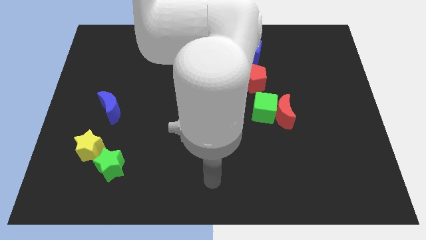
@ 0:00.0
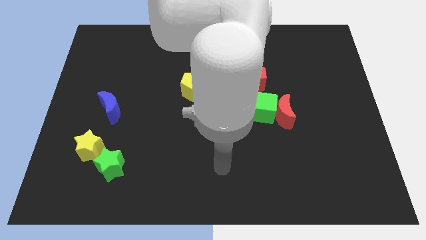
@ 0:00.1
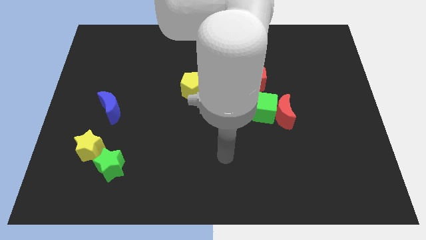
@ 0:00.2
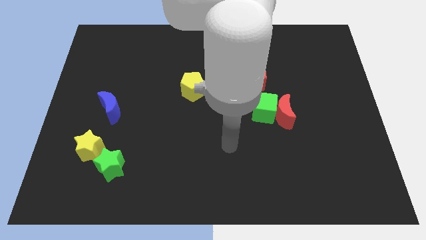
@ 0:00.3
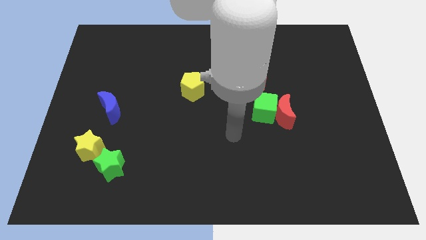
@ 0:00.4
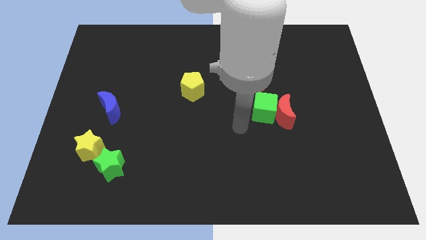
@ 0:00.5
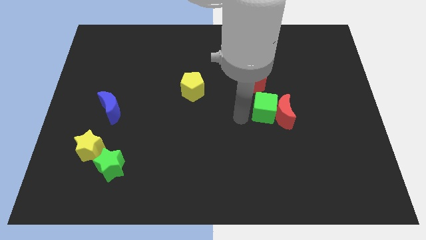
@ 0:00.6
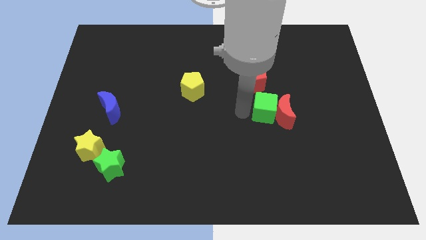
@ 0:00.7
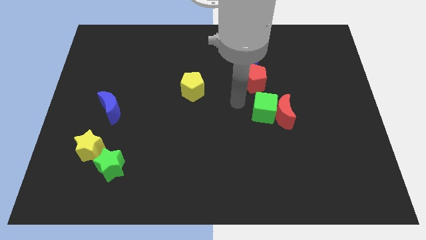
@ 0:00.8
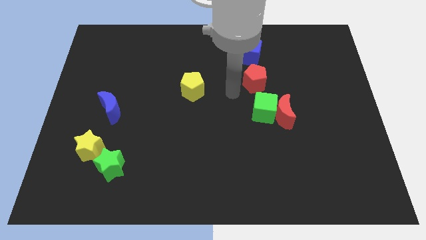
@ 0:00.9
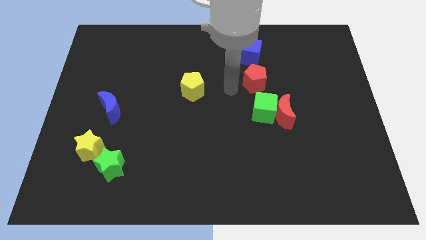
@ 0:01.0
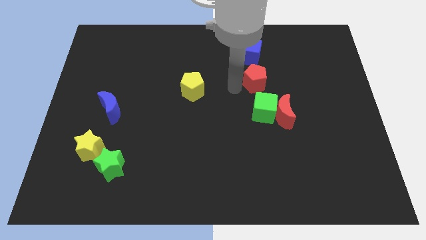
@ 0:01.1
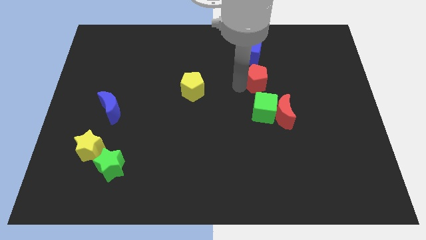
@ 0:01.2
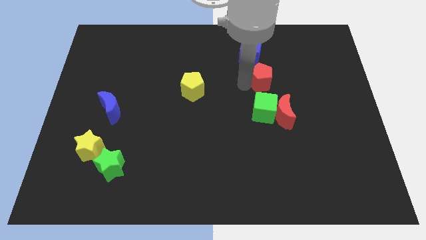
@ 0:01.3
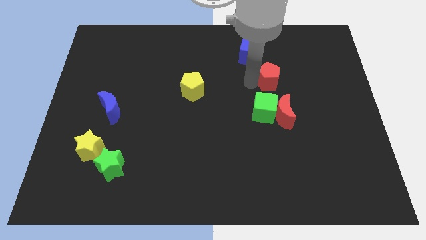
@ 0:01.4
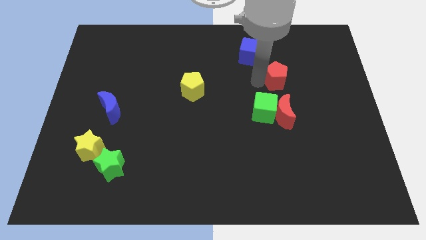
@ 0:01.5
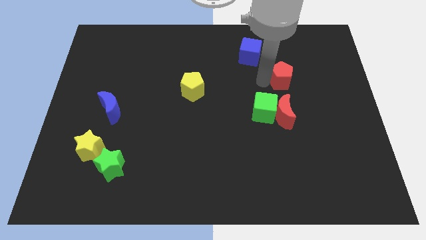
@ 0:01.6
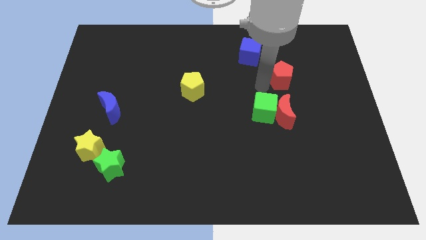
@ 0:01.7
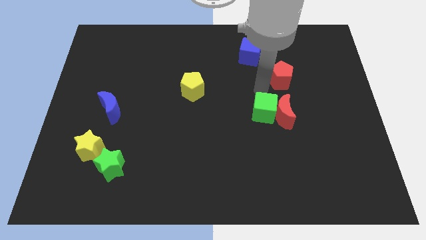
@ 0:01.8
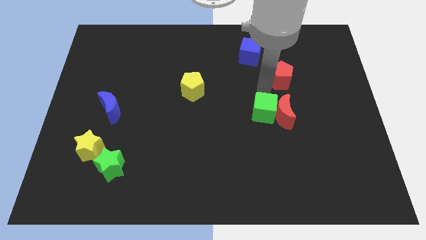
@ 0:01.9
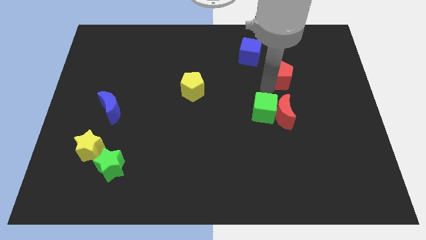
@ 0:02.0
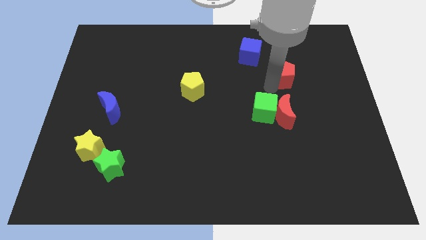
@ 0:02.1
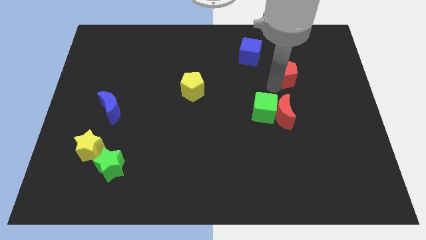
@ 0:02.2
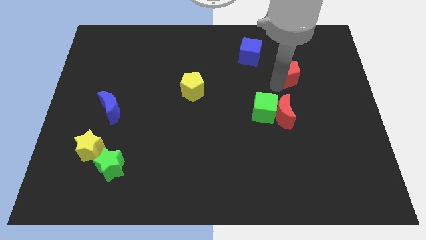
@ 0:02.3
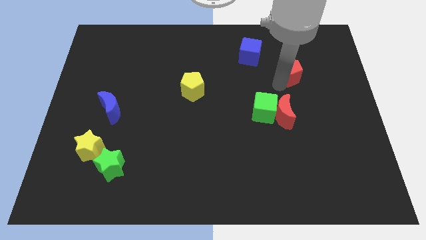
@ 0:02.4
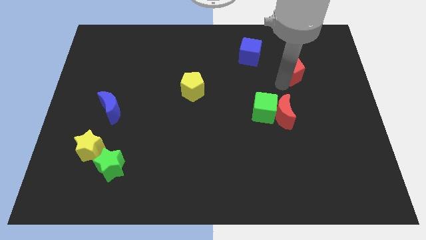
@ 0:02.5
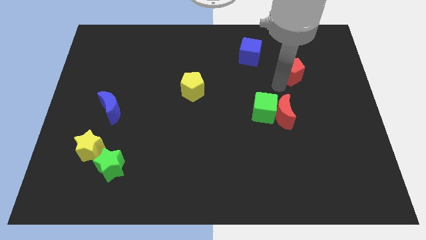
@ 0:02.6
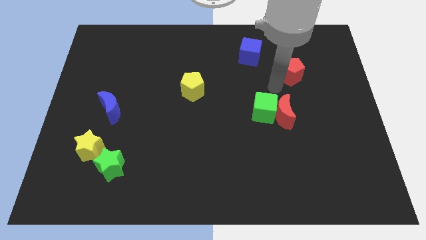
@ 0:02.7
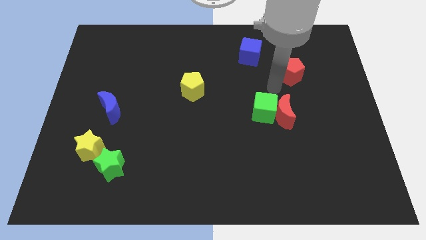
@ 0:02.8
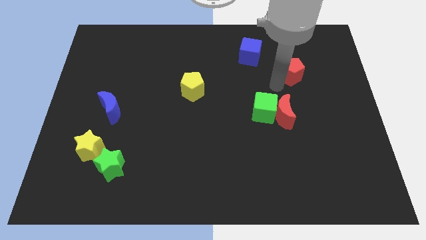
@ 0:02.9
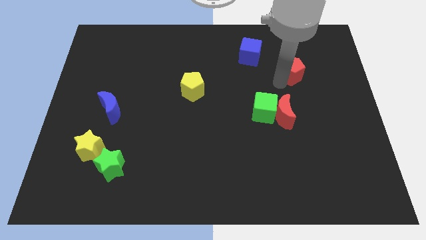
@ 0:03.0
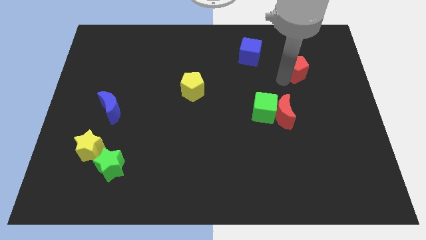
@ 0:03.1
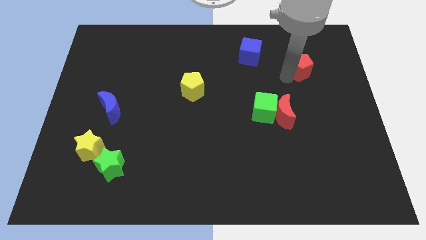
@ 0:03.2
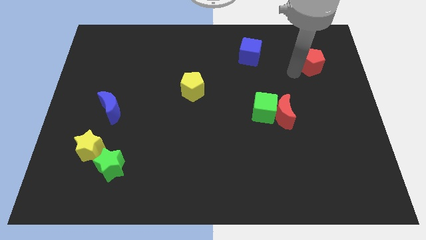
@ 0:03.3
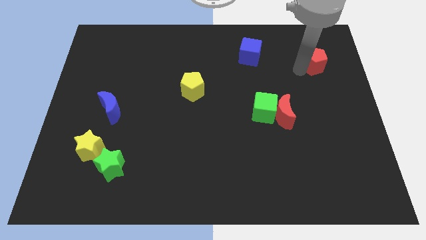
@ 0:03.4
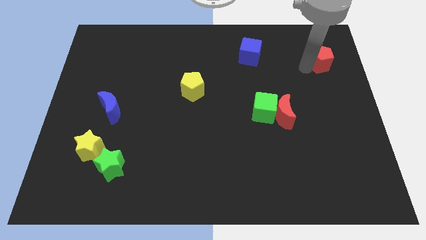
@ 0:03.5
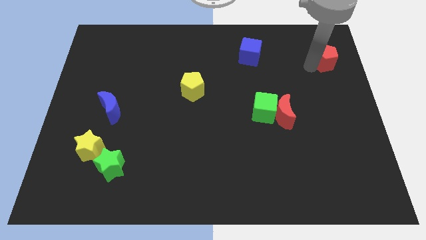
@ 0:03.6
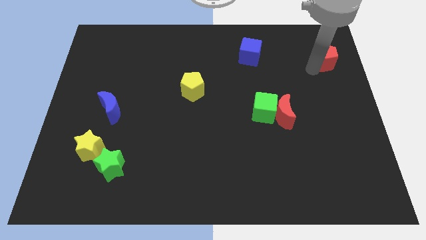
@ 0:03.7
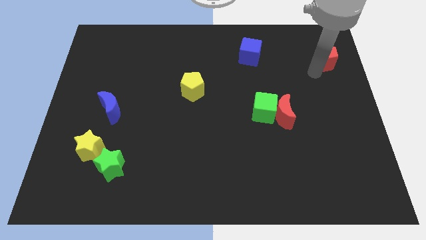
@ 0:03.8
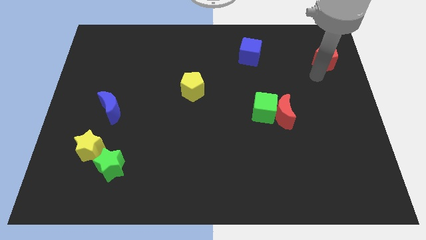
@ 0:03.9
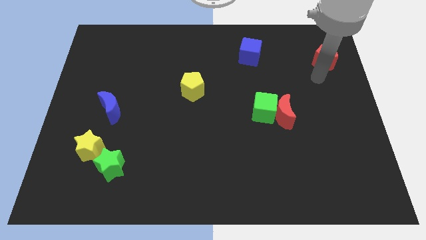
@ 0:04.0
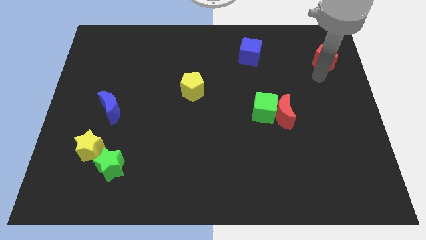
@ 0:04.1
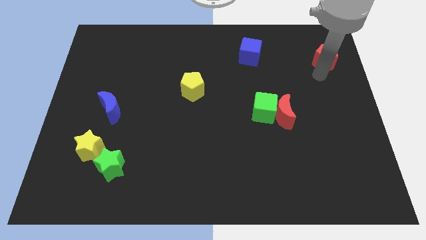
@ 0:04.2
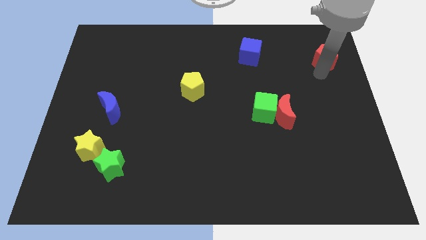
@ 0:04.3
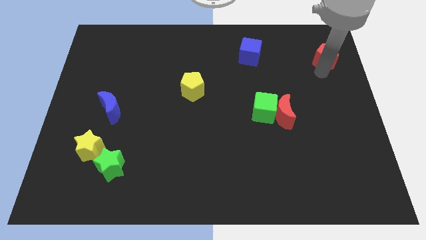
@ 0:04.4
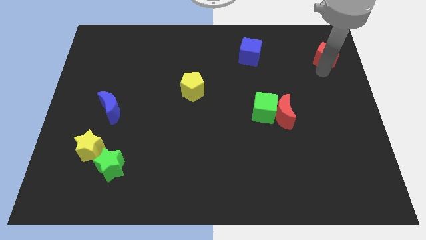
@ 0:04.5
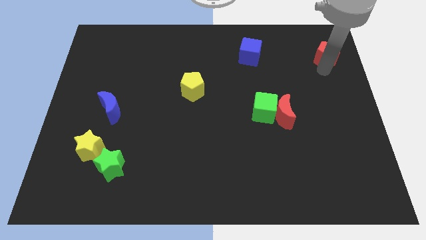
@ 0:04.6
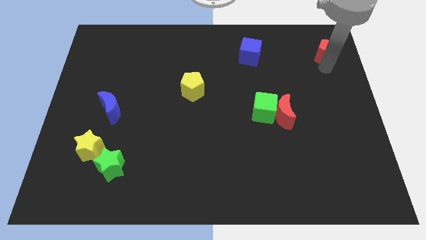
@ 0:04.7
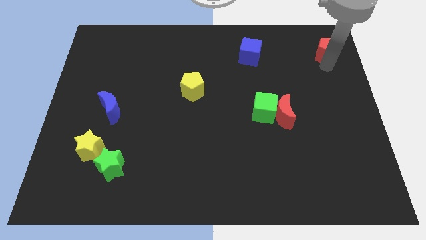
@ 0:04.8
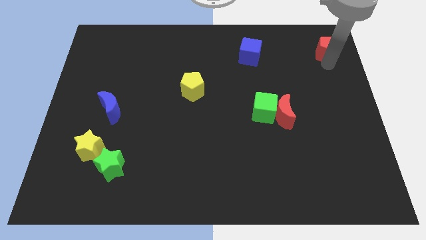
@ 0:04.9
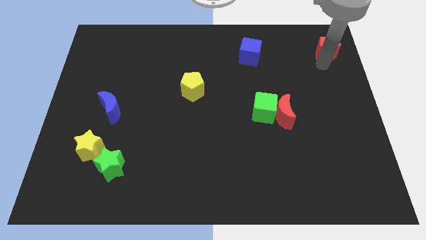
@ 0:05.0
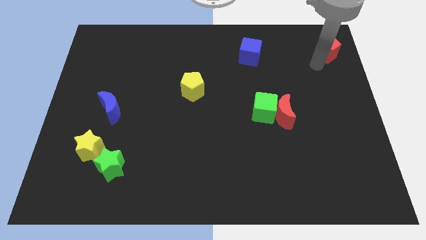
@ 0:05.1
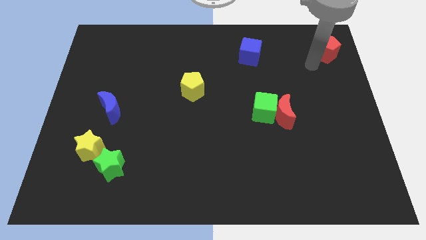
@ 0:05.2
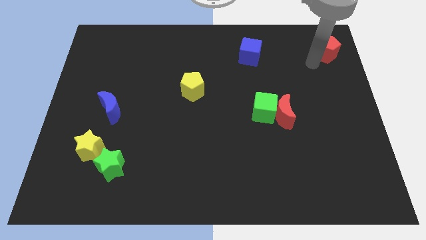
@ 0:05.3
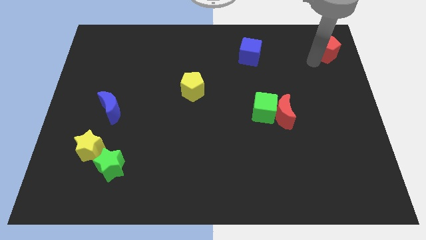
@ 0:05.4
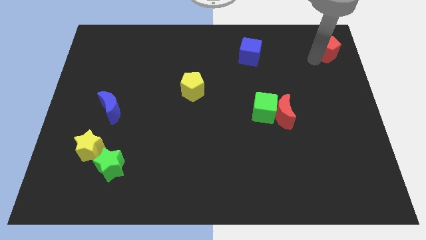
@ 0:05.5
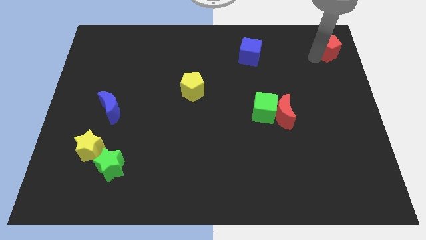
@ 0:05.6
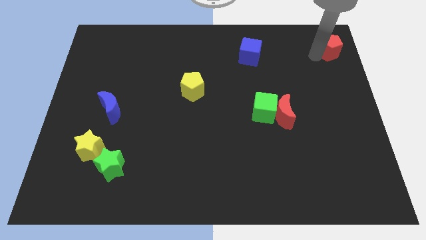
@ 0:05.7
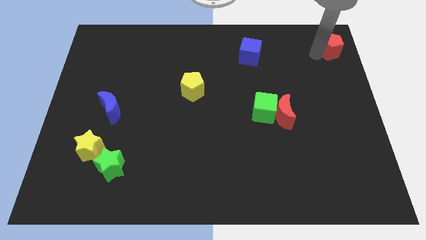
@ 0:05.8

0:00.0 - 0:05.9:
push the red pentagon to the upper right corner
